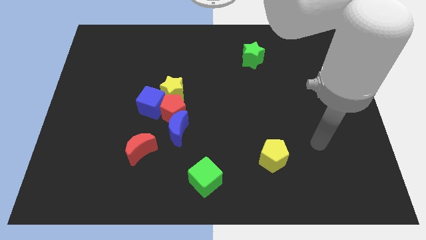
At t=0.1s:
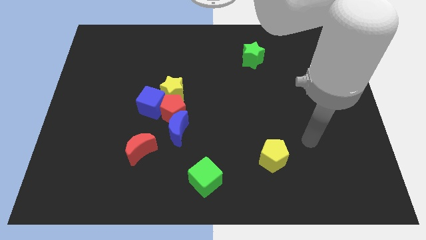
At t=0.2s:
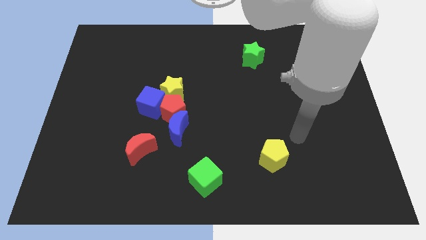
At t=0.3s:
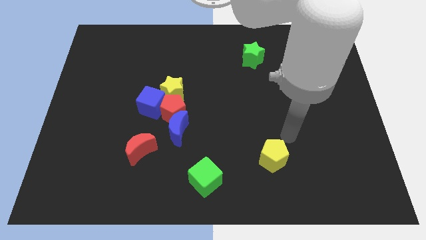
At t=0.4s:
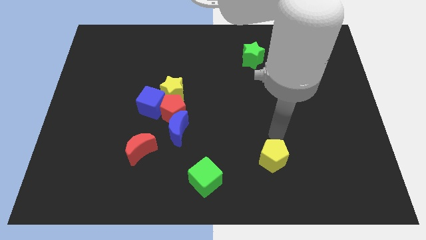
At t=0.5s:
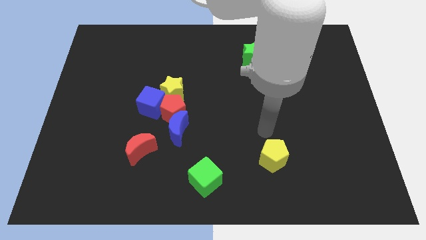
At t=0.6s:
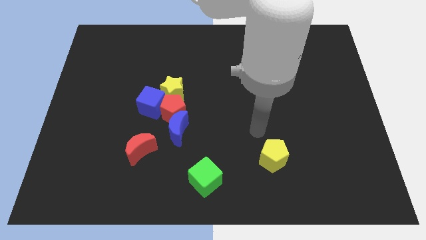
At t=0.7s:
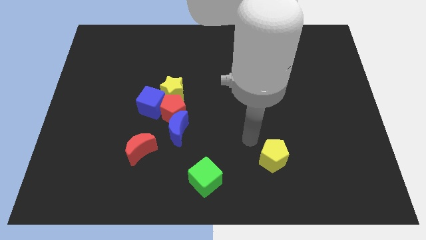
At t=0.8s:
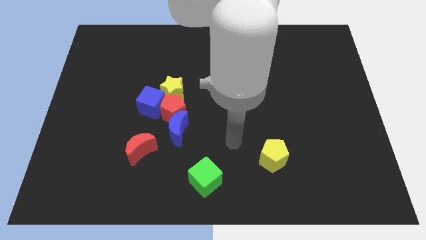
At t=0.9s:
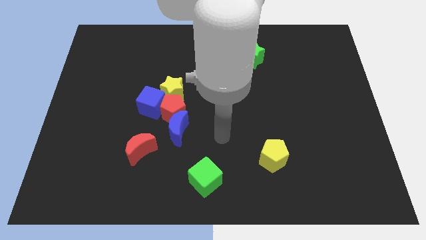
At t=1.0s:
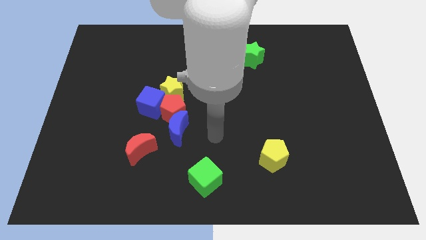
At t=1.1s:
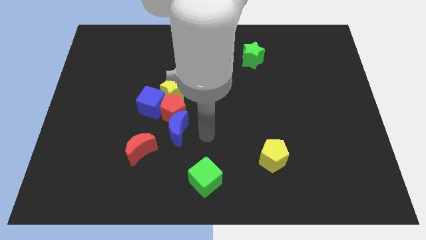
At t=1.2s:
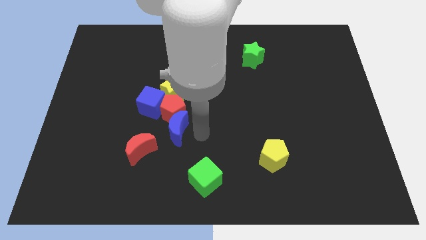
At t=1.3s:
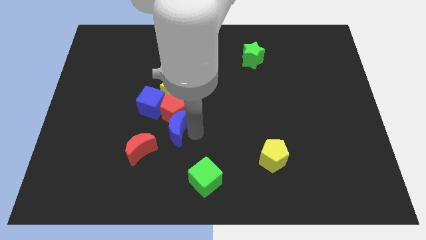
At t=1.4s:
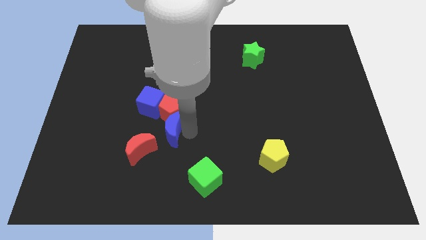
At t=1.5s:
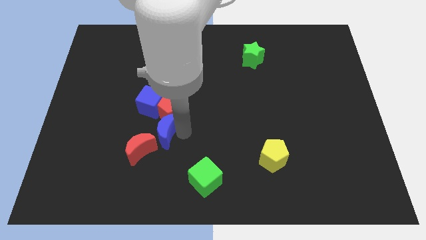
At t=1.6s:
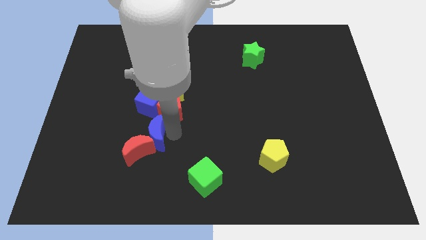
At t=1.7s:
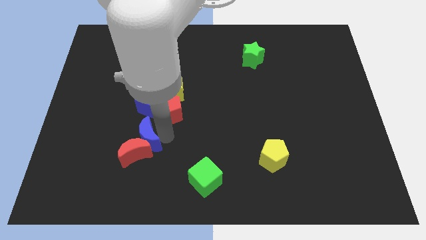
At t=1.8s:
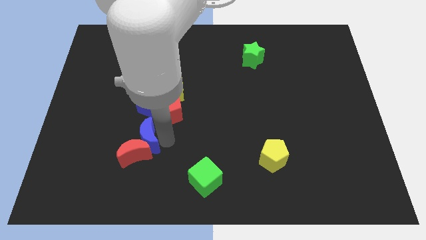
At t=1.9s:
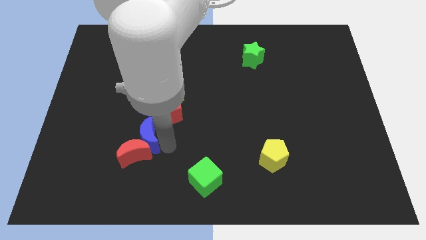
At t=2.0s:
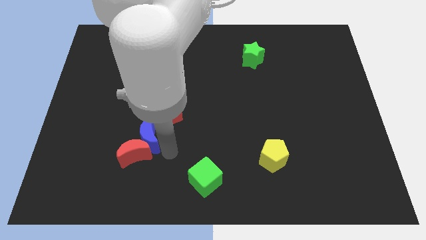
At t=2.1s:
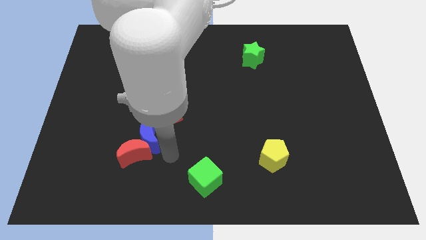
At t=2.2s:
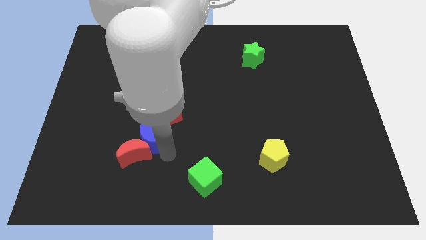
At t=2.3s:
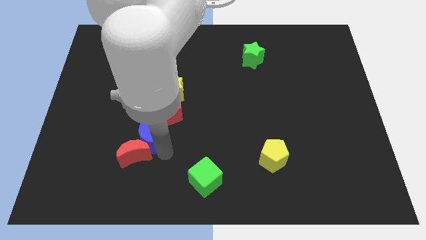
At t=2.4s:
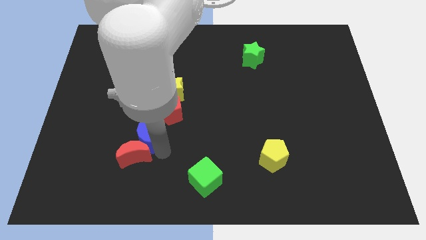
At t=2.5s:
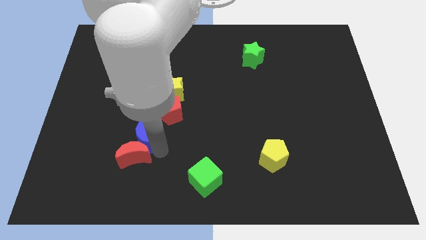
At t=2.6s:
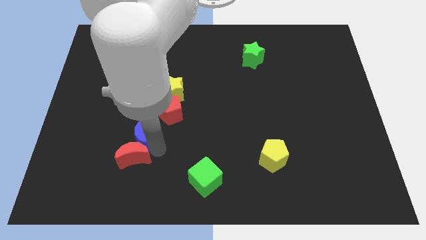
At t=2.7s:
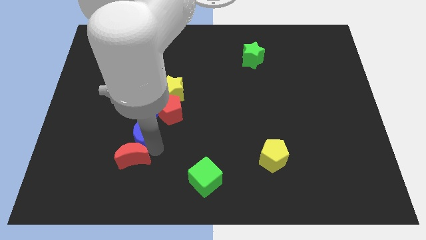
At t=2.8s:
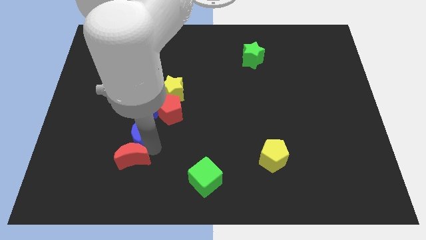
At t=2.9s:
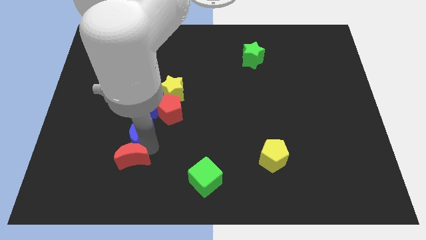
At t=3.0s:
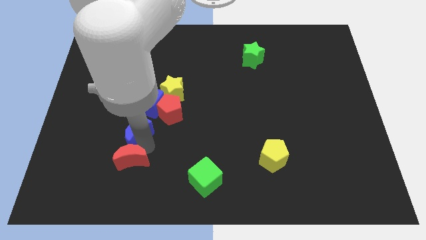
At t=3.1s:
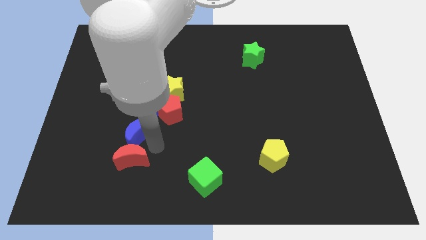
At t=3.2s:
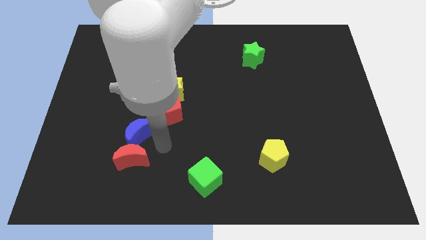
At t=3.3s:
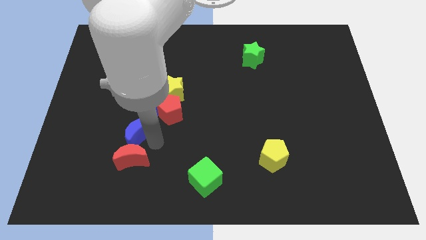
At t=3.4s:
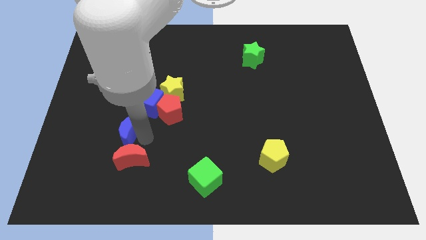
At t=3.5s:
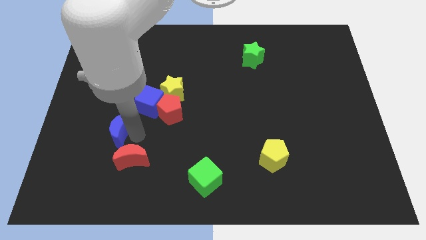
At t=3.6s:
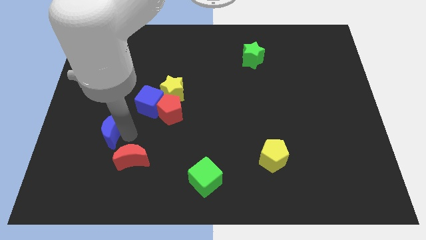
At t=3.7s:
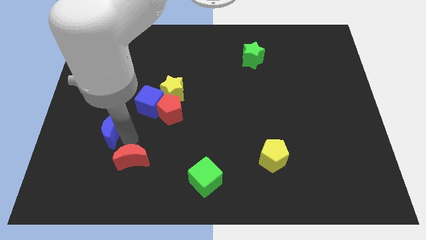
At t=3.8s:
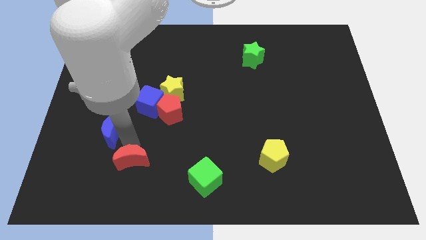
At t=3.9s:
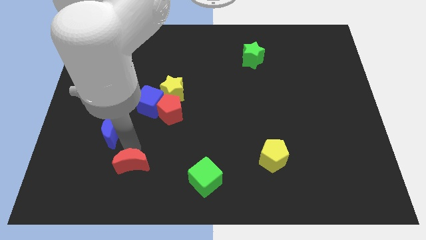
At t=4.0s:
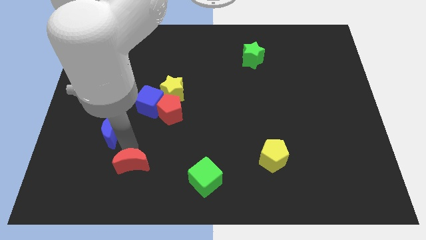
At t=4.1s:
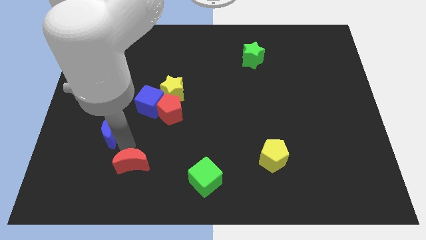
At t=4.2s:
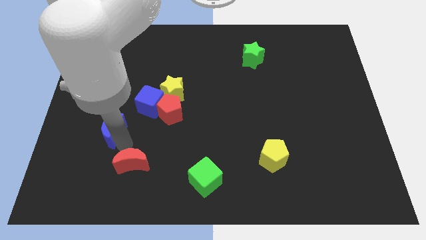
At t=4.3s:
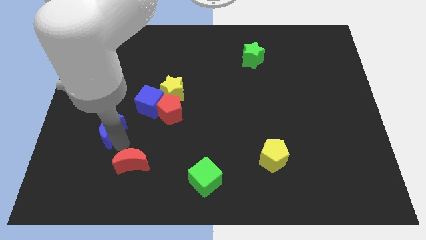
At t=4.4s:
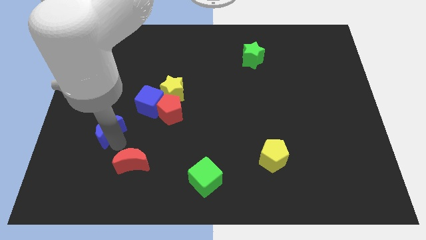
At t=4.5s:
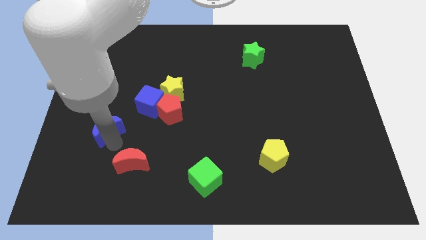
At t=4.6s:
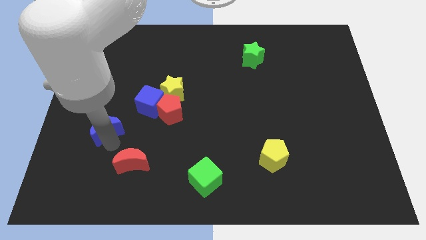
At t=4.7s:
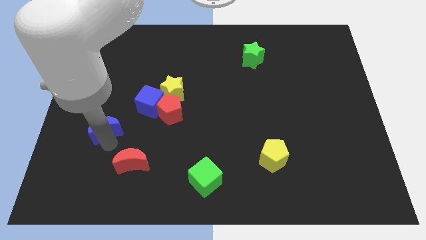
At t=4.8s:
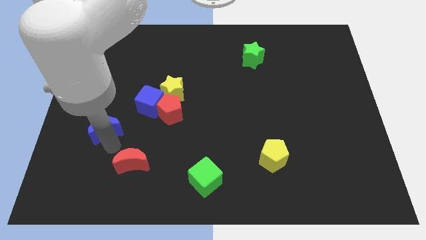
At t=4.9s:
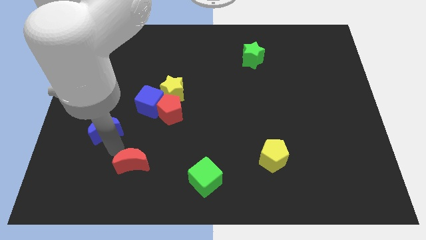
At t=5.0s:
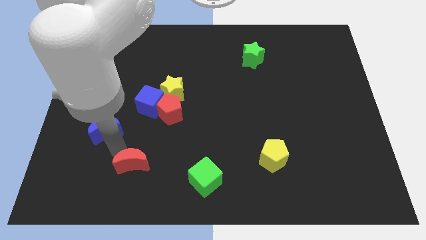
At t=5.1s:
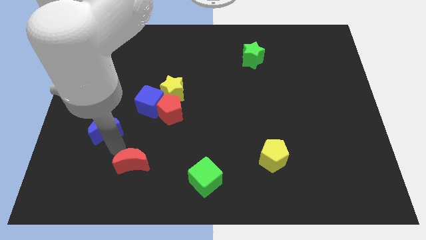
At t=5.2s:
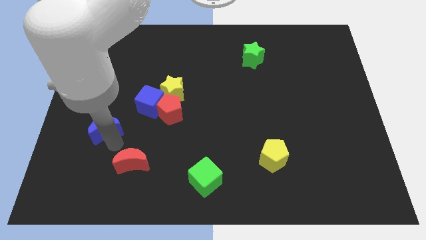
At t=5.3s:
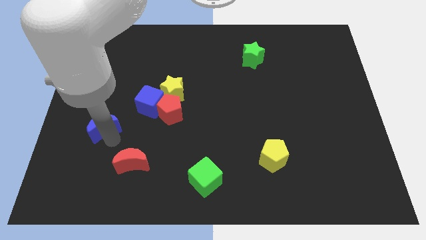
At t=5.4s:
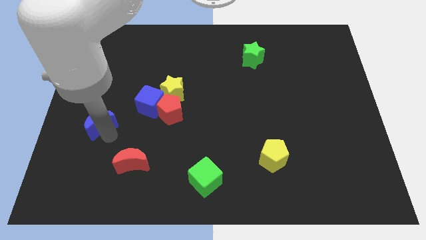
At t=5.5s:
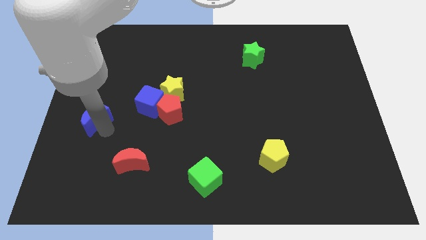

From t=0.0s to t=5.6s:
slide the blue moon to the left side
